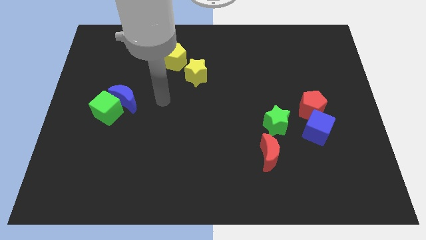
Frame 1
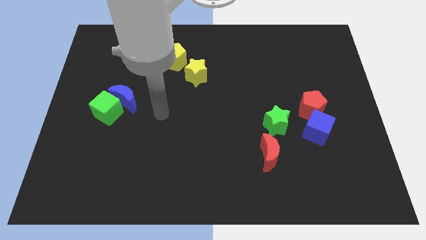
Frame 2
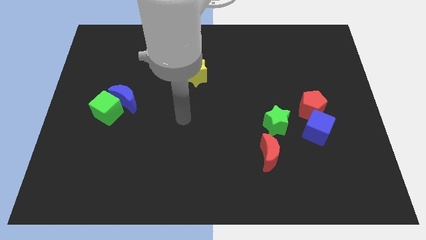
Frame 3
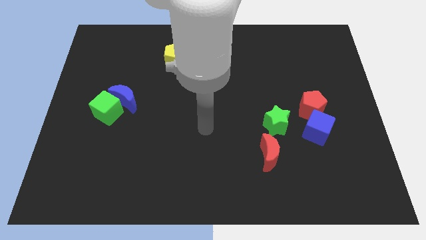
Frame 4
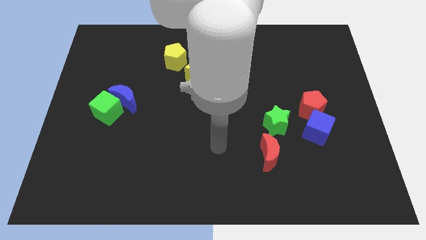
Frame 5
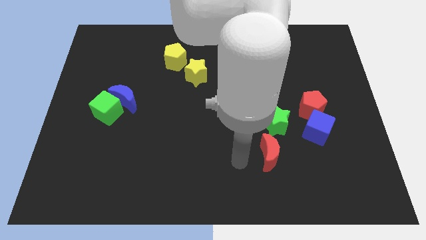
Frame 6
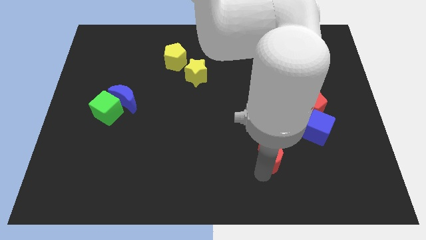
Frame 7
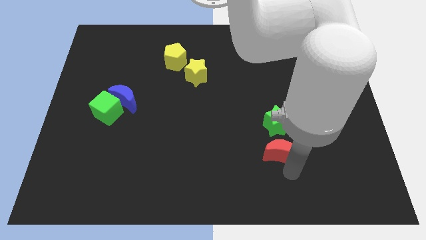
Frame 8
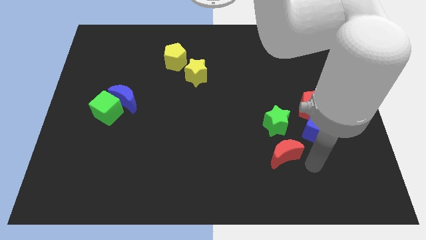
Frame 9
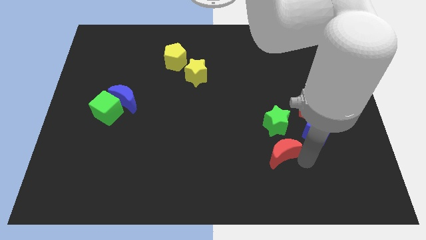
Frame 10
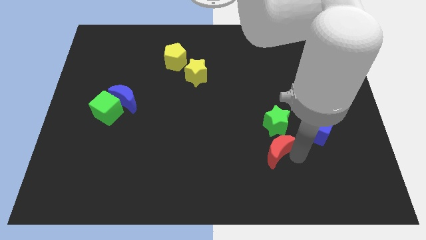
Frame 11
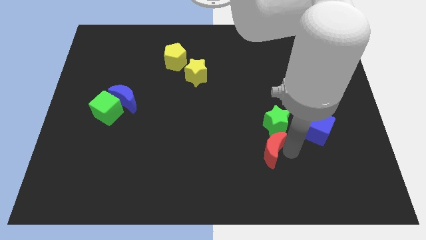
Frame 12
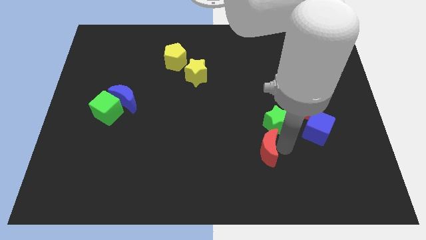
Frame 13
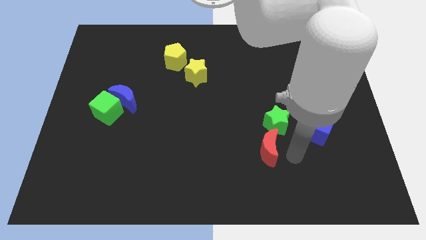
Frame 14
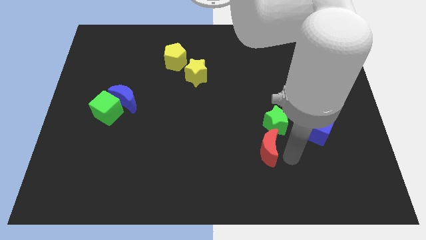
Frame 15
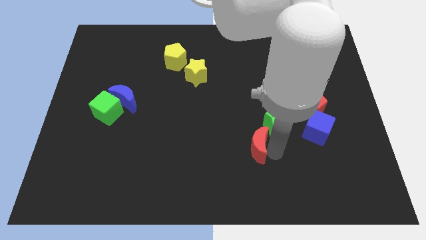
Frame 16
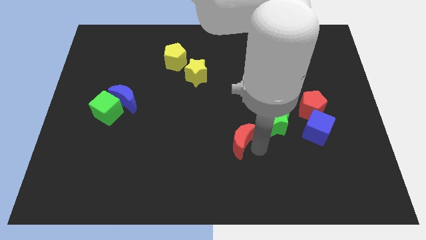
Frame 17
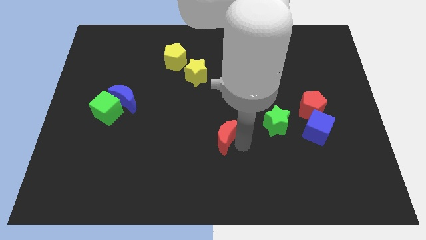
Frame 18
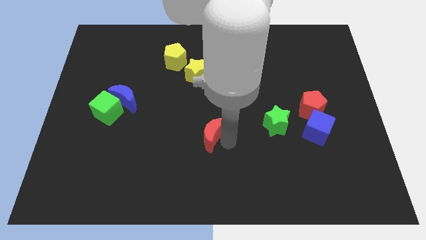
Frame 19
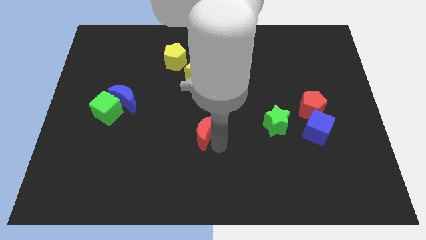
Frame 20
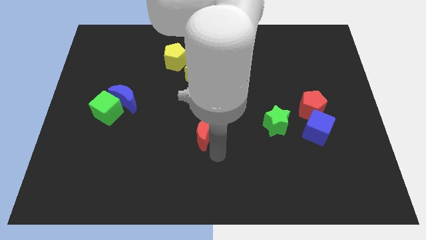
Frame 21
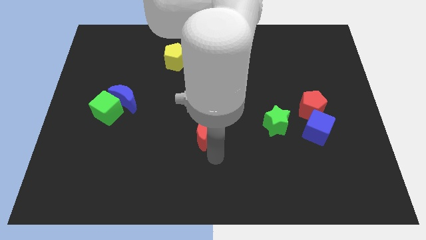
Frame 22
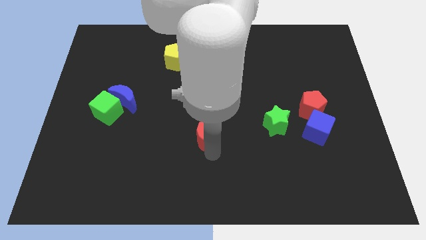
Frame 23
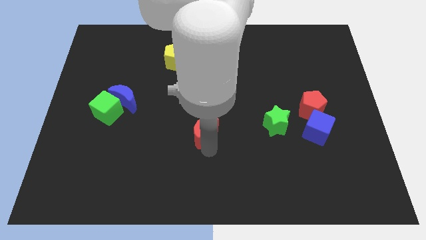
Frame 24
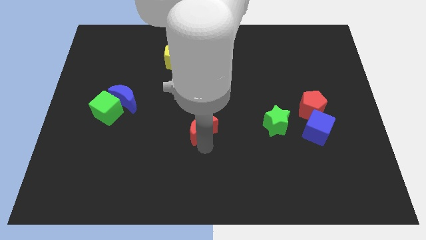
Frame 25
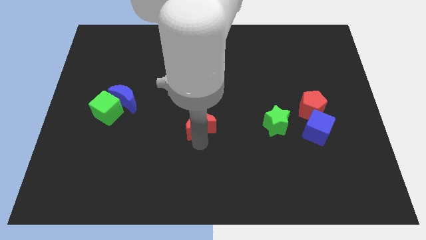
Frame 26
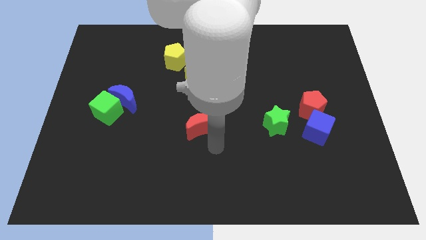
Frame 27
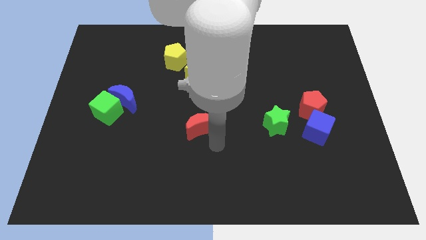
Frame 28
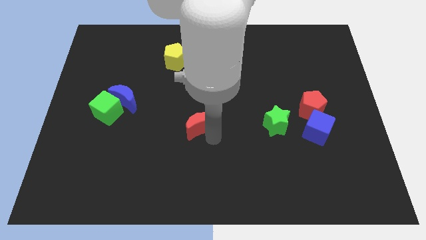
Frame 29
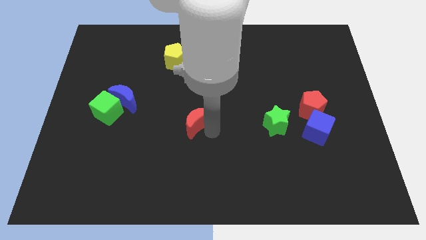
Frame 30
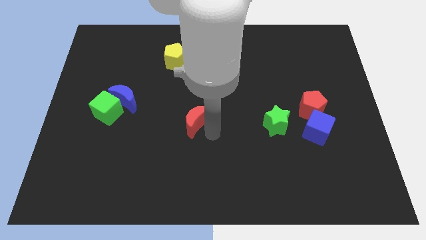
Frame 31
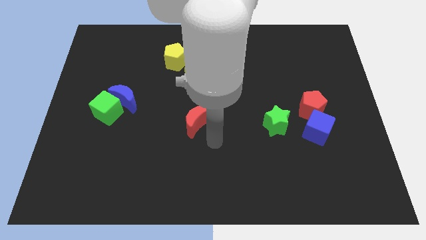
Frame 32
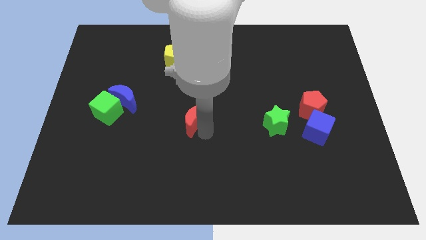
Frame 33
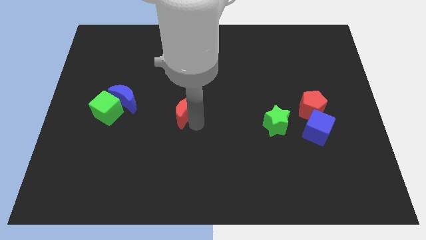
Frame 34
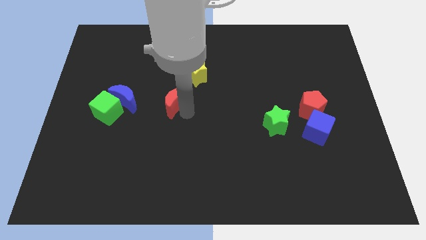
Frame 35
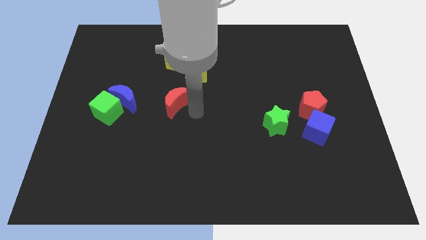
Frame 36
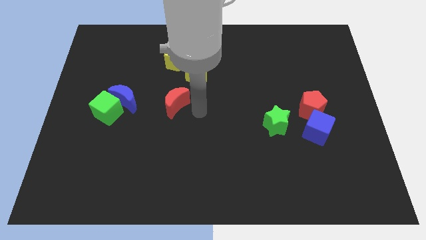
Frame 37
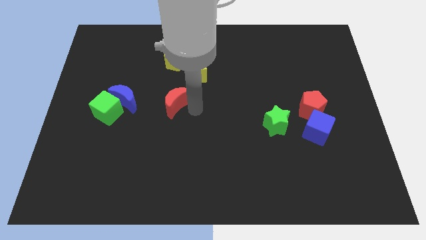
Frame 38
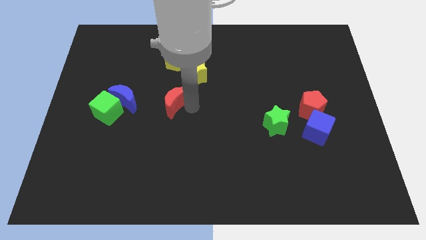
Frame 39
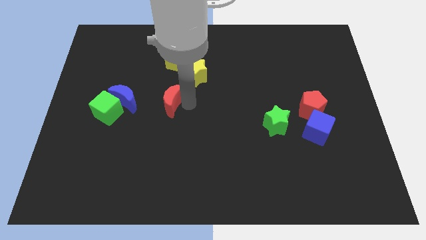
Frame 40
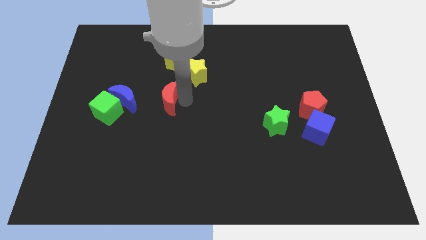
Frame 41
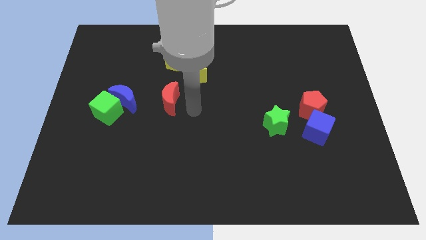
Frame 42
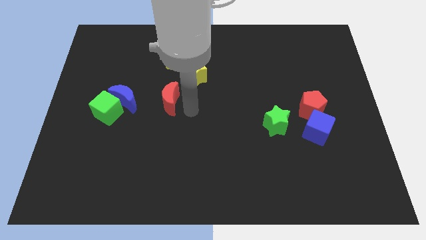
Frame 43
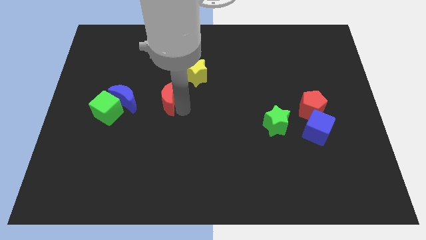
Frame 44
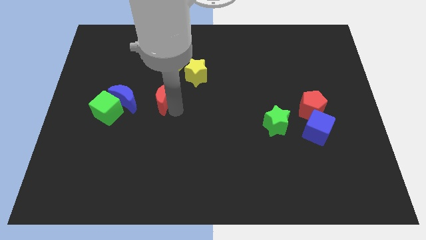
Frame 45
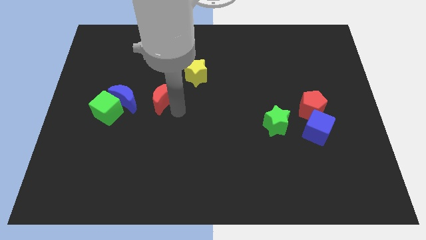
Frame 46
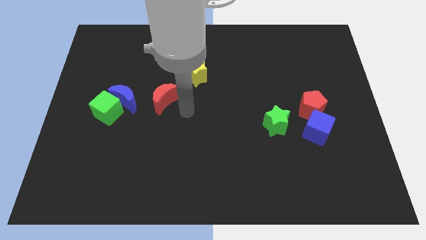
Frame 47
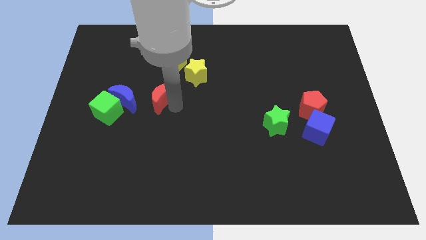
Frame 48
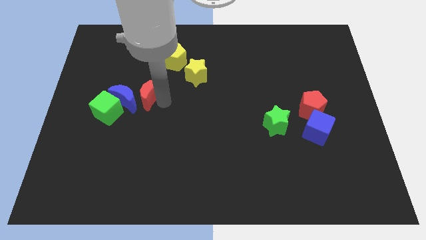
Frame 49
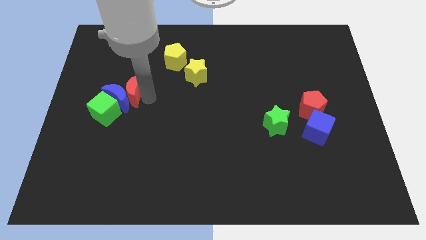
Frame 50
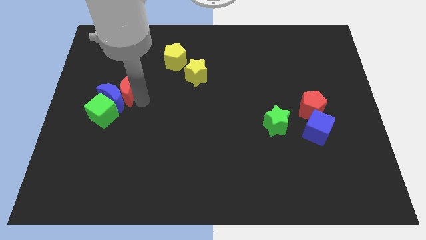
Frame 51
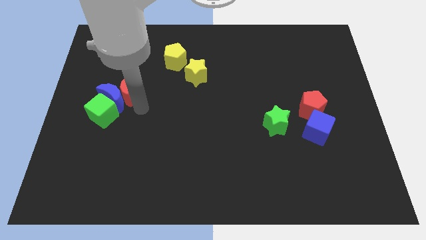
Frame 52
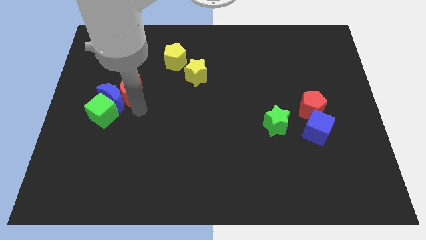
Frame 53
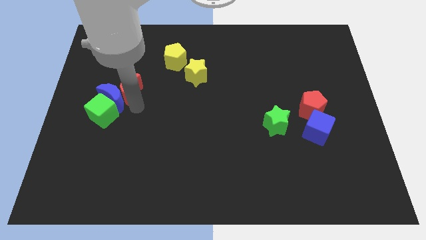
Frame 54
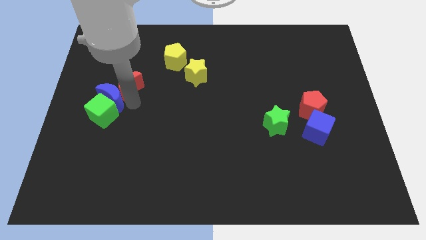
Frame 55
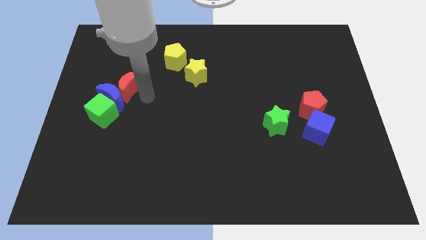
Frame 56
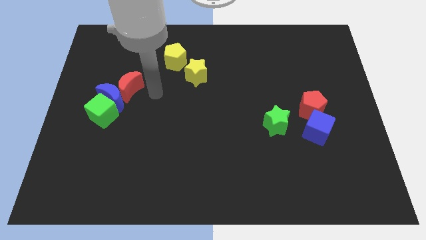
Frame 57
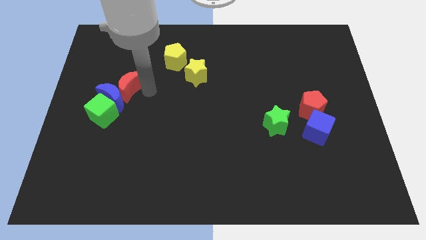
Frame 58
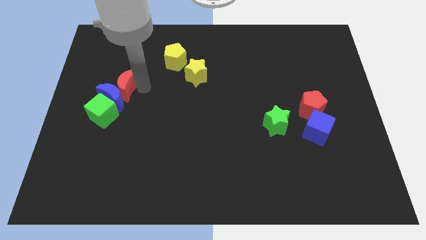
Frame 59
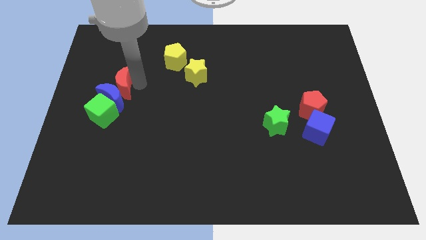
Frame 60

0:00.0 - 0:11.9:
push the red moon to the top left side of the blue moon

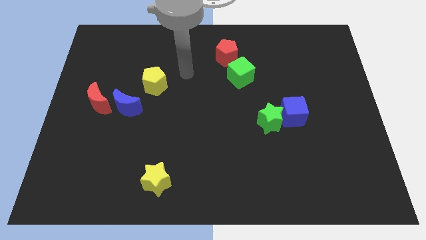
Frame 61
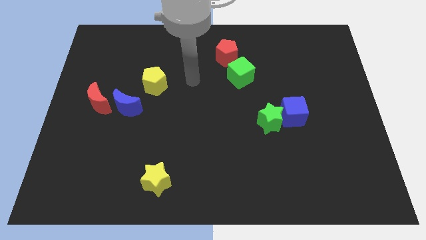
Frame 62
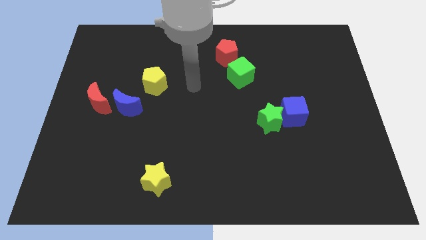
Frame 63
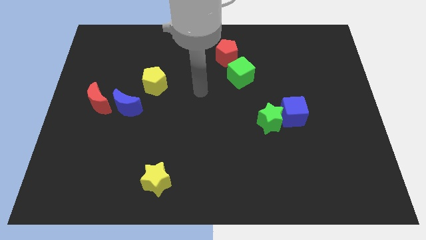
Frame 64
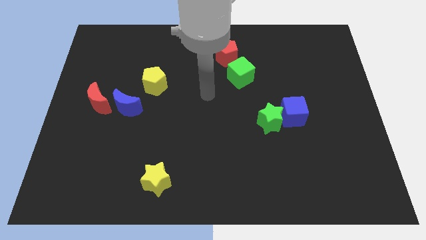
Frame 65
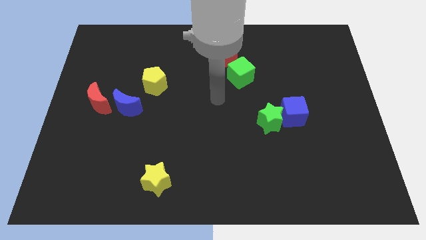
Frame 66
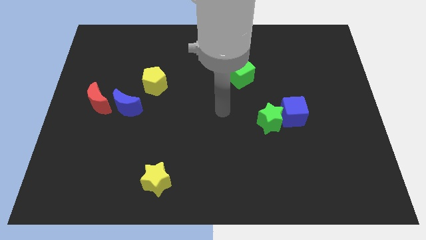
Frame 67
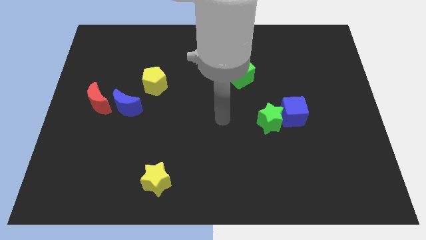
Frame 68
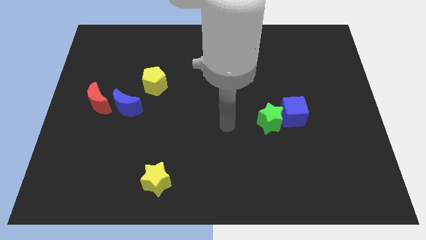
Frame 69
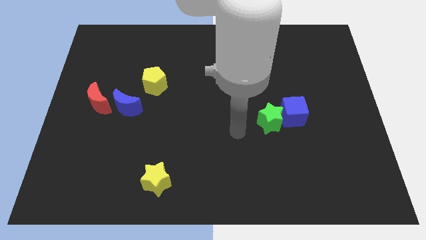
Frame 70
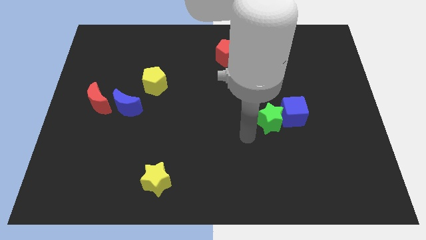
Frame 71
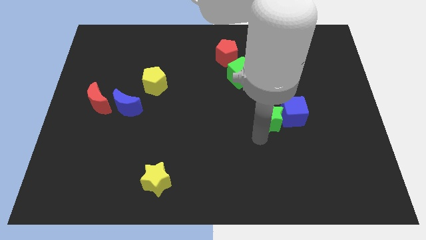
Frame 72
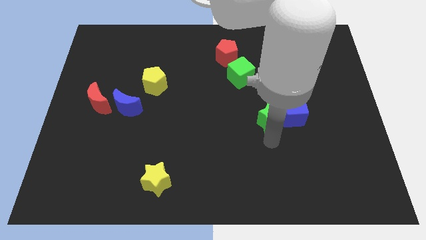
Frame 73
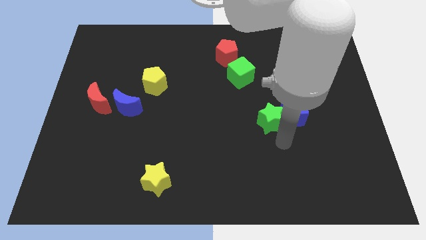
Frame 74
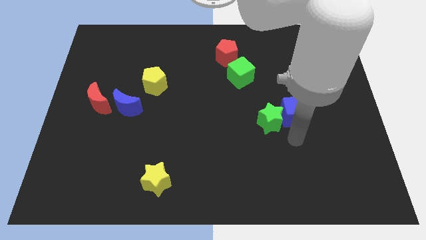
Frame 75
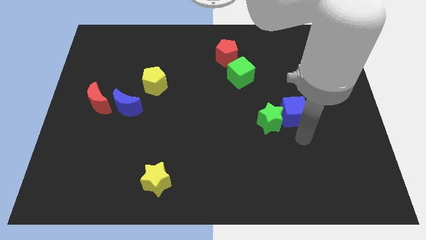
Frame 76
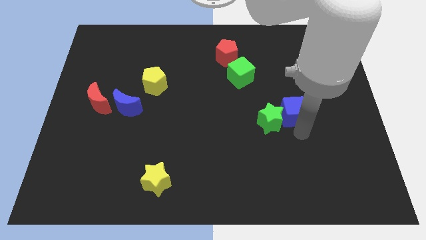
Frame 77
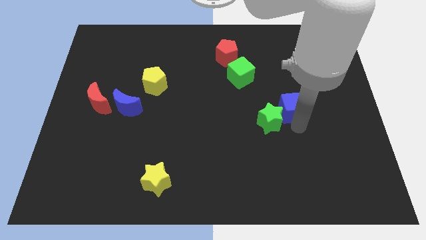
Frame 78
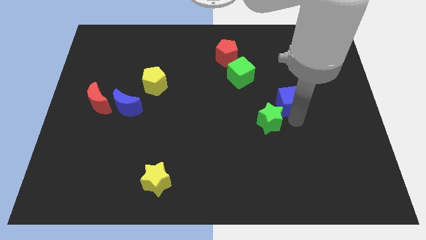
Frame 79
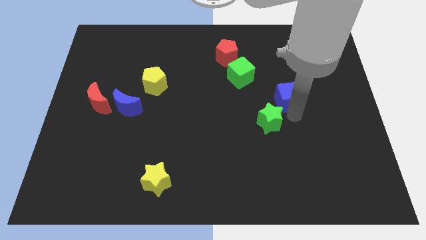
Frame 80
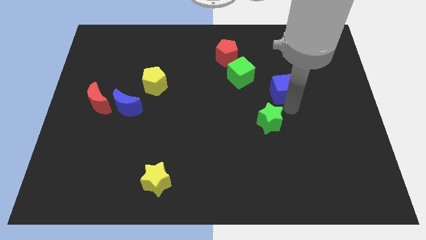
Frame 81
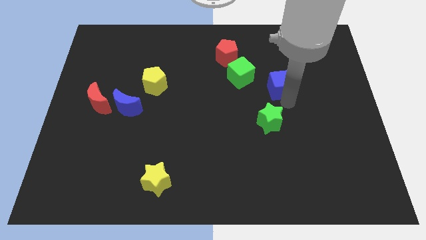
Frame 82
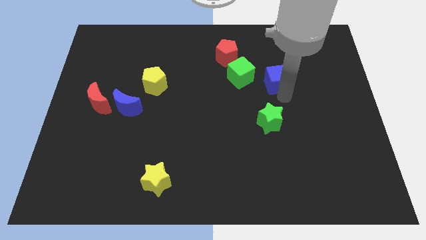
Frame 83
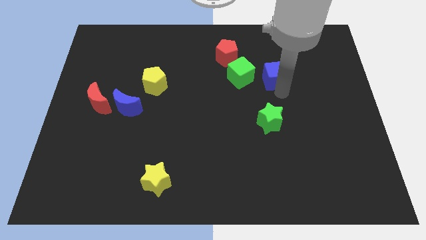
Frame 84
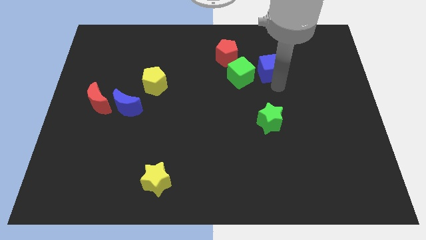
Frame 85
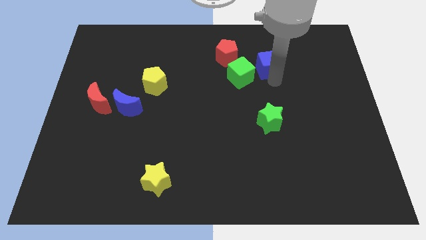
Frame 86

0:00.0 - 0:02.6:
put the blue cube just right of the red pentagon
